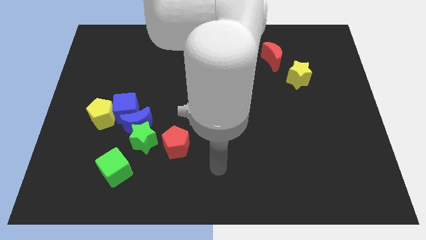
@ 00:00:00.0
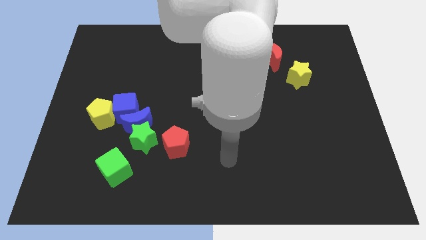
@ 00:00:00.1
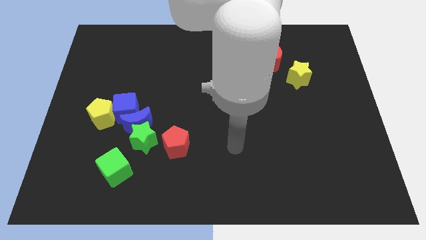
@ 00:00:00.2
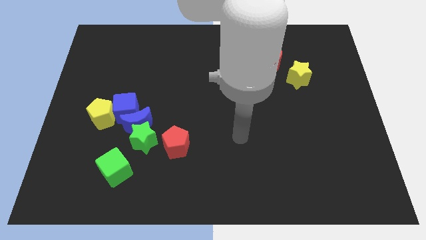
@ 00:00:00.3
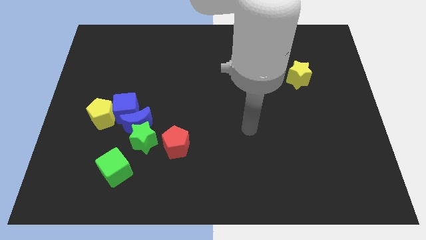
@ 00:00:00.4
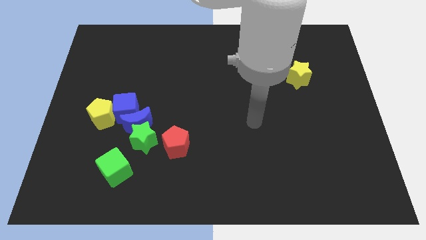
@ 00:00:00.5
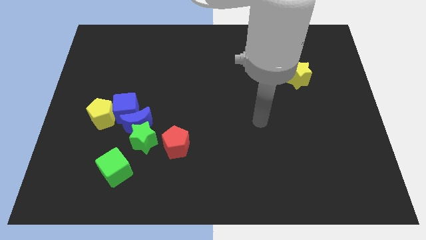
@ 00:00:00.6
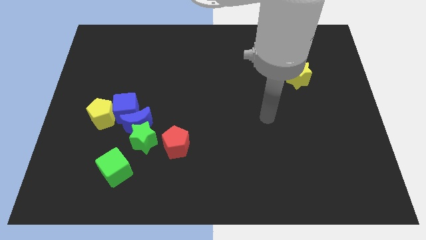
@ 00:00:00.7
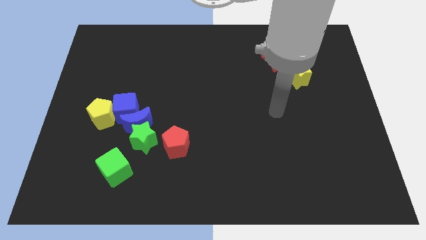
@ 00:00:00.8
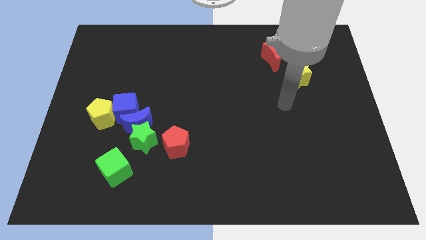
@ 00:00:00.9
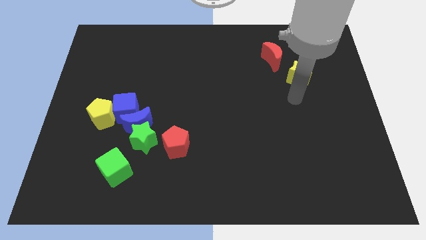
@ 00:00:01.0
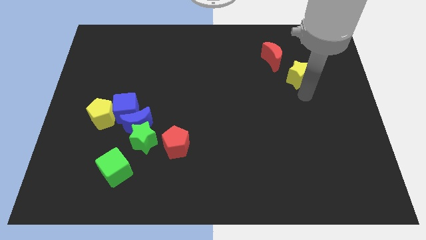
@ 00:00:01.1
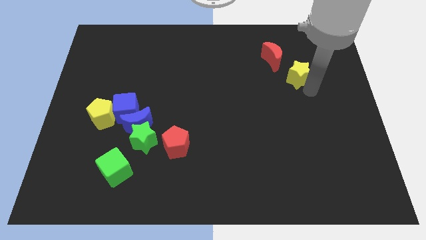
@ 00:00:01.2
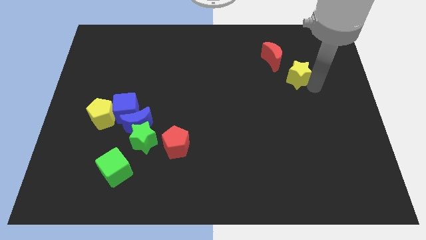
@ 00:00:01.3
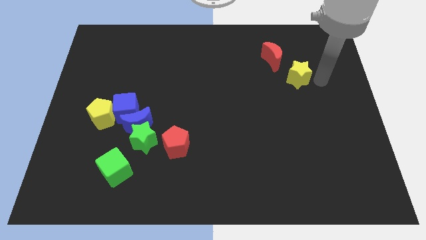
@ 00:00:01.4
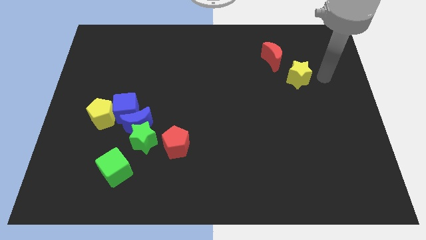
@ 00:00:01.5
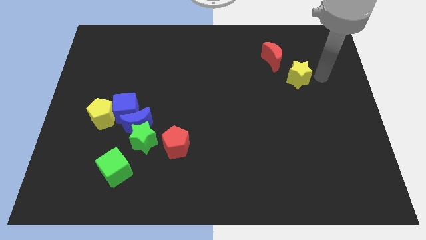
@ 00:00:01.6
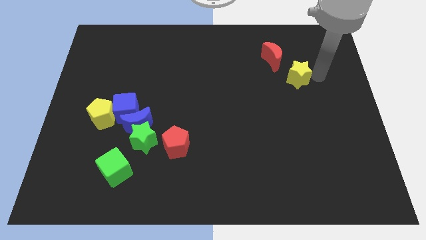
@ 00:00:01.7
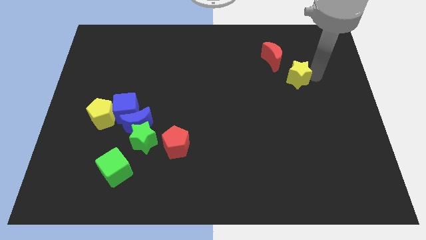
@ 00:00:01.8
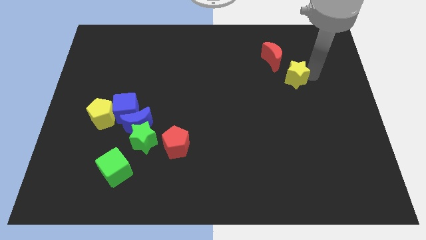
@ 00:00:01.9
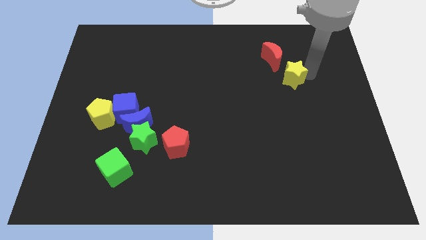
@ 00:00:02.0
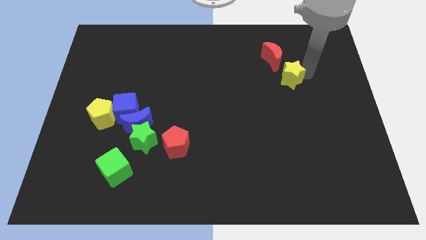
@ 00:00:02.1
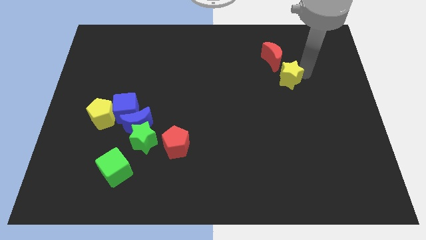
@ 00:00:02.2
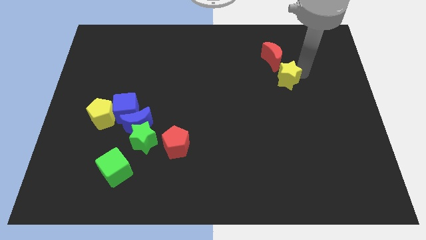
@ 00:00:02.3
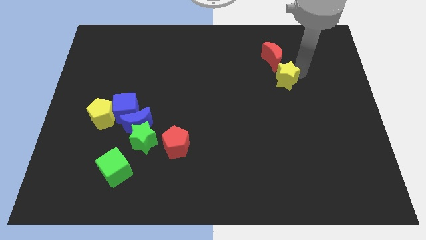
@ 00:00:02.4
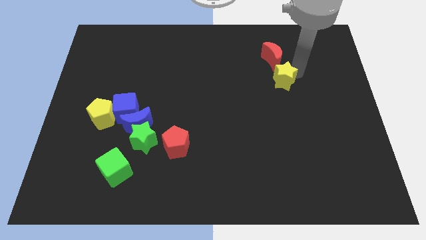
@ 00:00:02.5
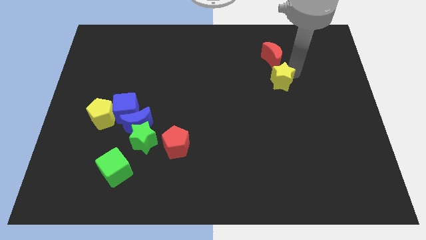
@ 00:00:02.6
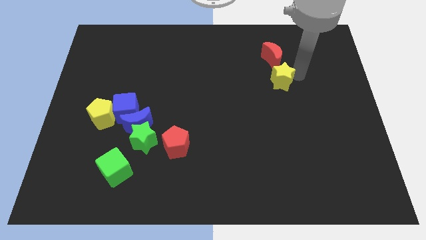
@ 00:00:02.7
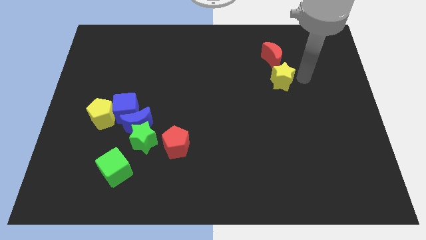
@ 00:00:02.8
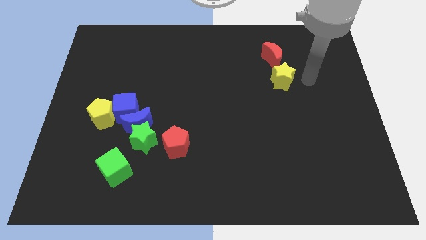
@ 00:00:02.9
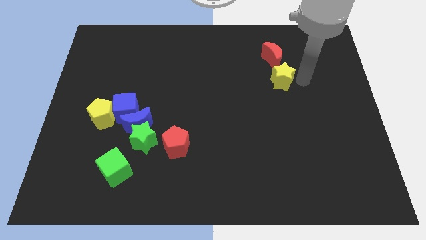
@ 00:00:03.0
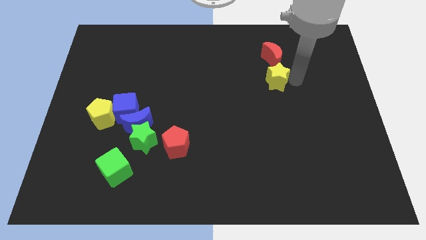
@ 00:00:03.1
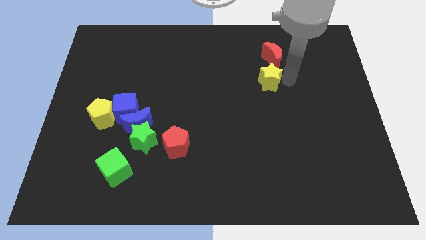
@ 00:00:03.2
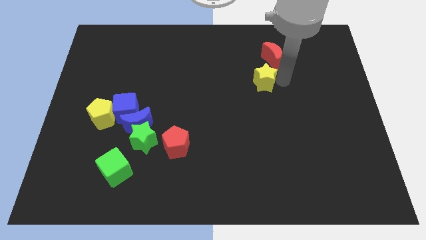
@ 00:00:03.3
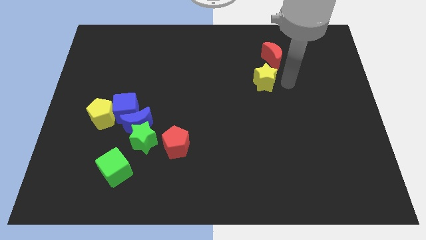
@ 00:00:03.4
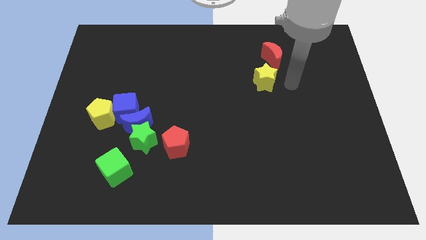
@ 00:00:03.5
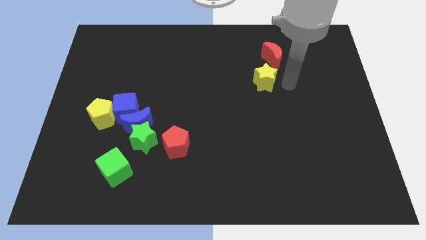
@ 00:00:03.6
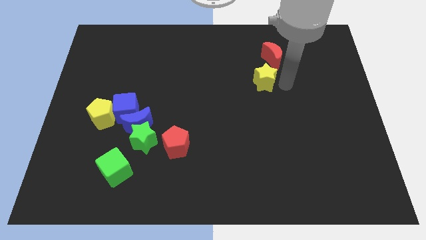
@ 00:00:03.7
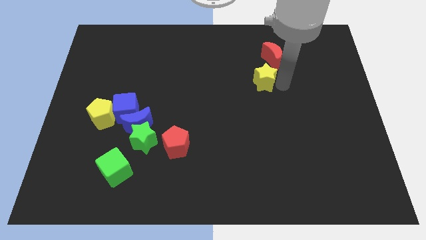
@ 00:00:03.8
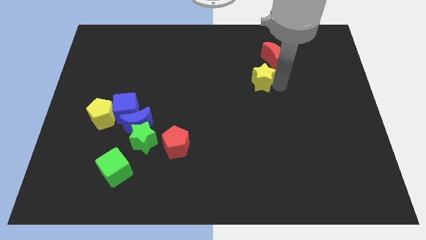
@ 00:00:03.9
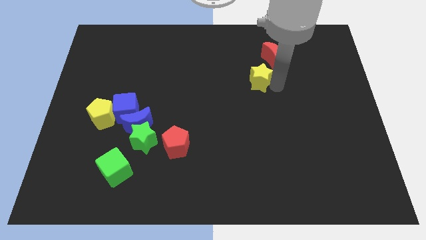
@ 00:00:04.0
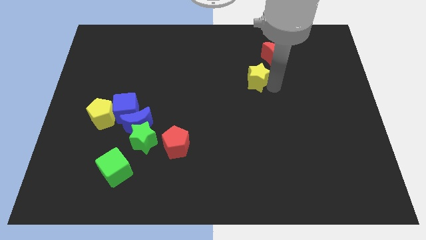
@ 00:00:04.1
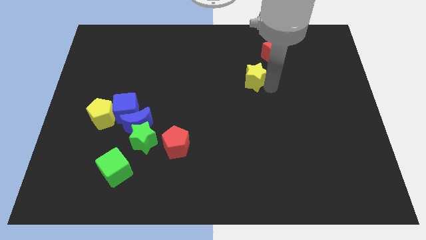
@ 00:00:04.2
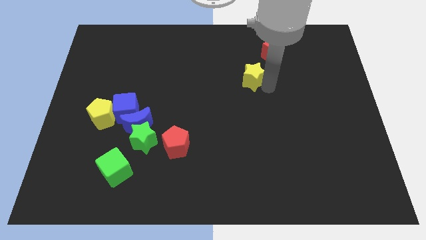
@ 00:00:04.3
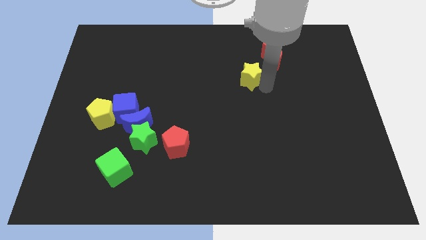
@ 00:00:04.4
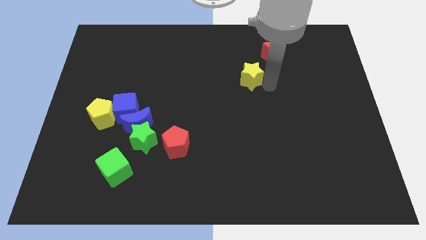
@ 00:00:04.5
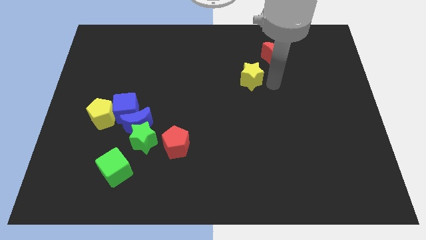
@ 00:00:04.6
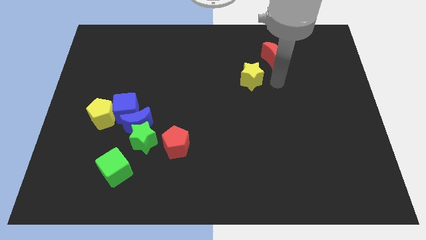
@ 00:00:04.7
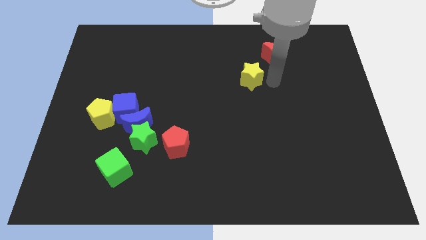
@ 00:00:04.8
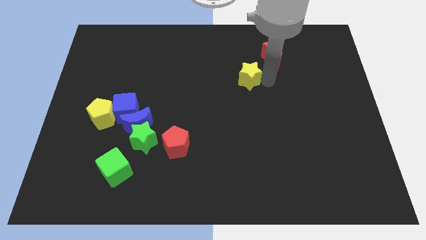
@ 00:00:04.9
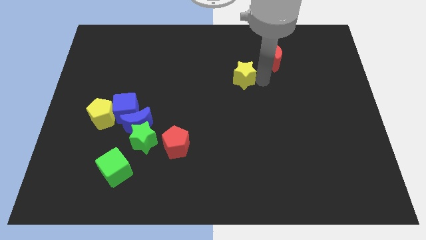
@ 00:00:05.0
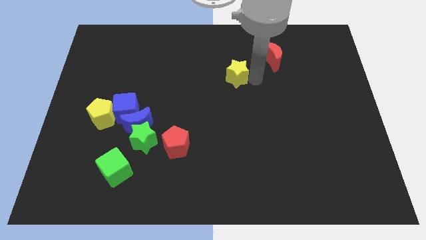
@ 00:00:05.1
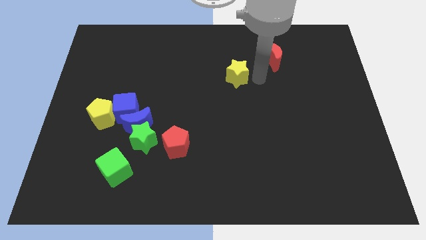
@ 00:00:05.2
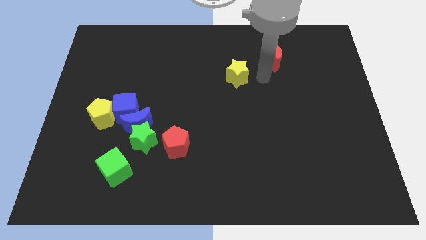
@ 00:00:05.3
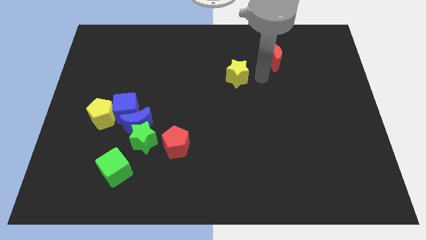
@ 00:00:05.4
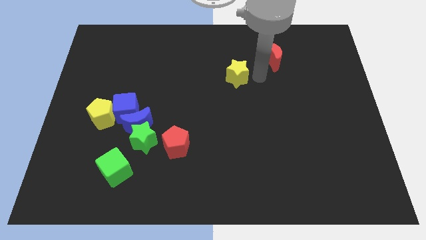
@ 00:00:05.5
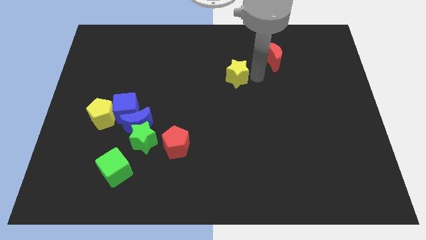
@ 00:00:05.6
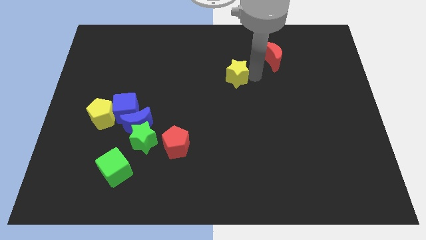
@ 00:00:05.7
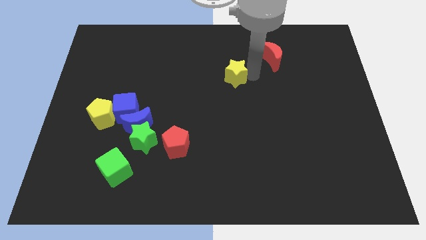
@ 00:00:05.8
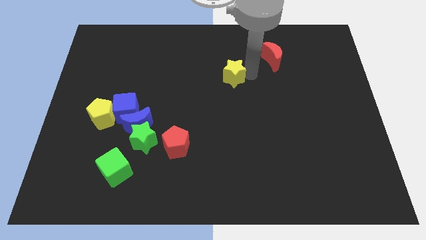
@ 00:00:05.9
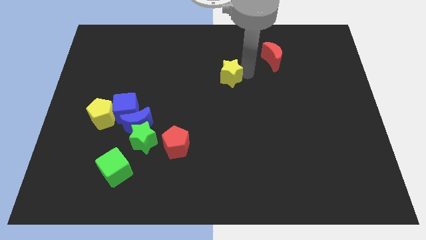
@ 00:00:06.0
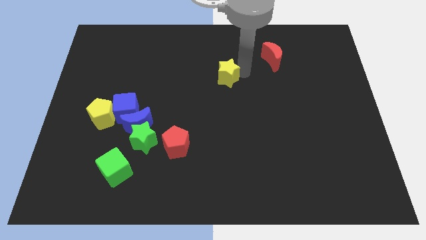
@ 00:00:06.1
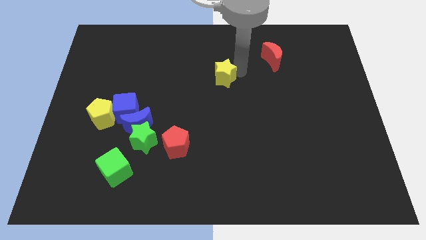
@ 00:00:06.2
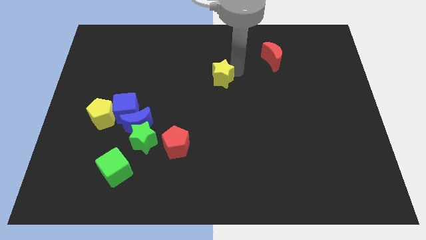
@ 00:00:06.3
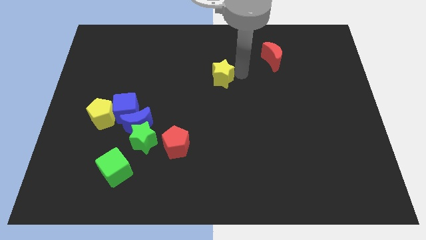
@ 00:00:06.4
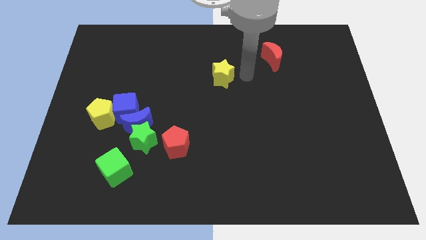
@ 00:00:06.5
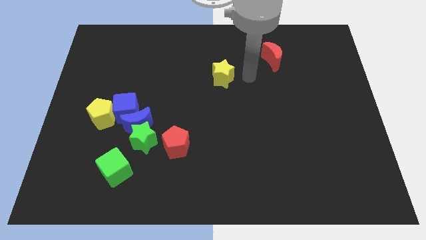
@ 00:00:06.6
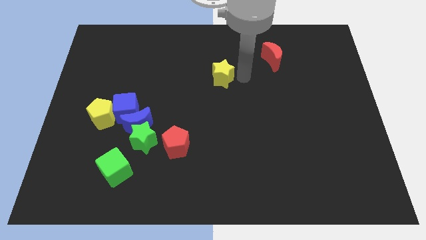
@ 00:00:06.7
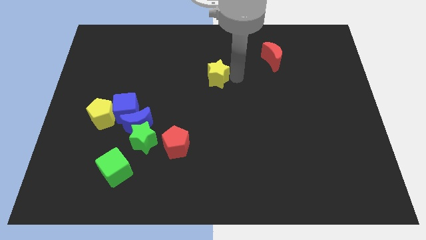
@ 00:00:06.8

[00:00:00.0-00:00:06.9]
push the yellow star to the left

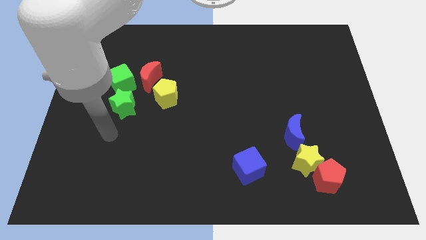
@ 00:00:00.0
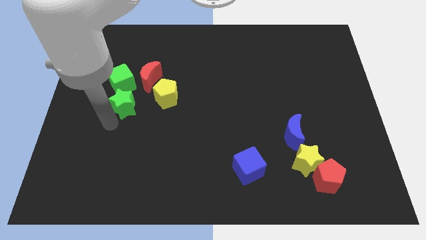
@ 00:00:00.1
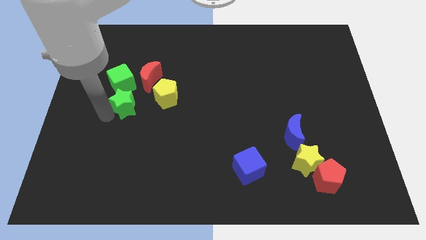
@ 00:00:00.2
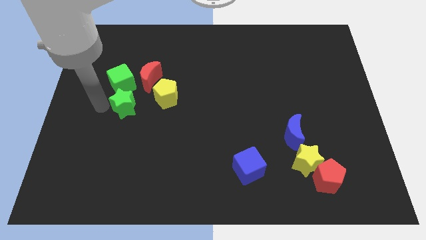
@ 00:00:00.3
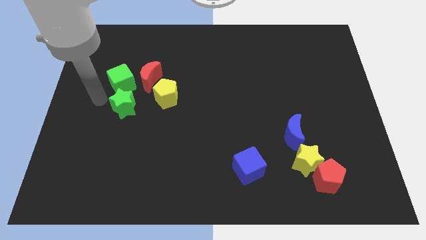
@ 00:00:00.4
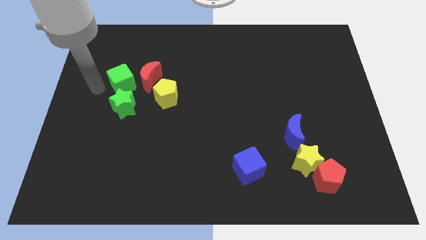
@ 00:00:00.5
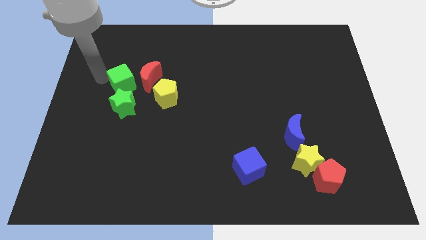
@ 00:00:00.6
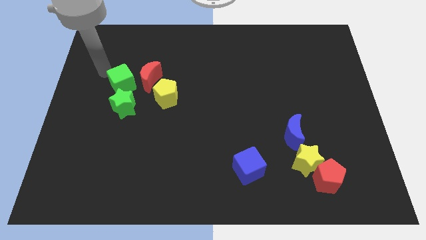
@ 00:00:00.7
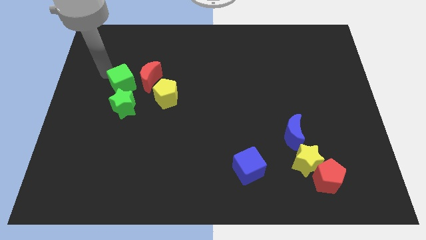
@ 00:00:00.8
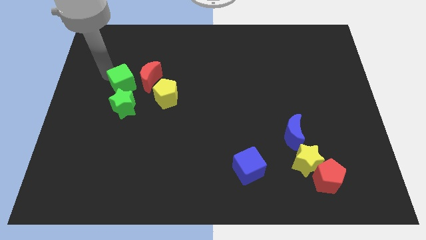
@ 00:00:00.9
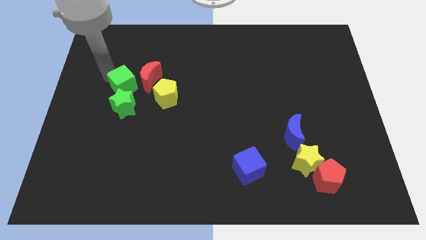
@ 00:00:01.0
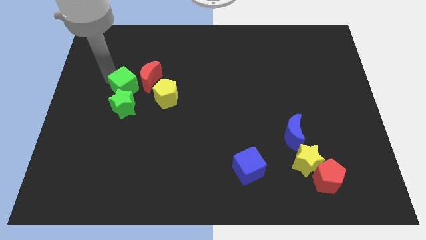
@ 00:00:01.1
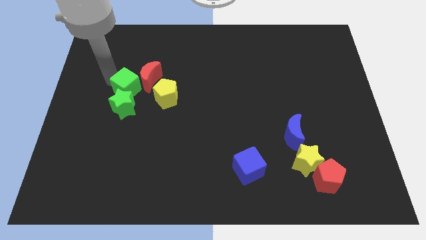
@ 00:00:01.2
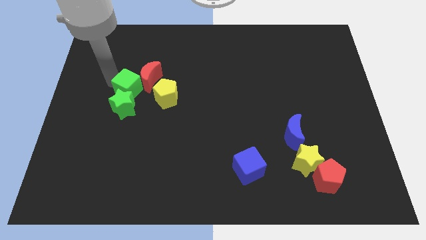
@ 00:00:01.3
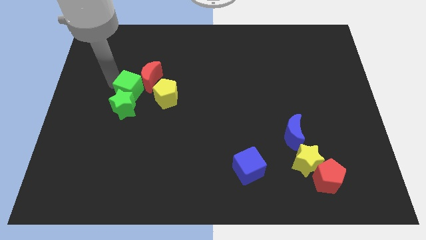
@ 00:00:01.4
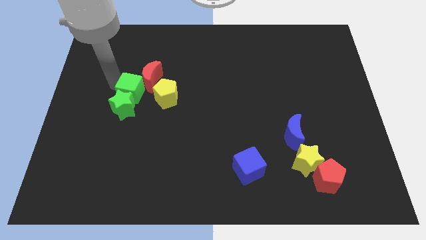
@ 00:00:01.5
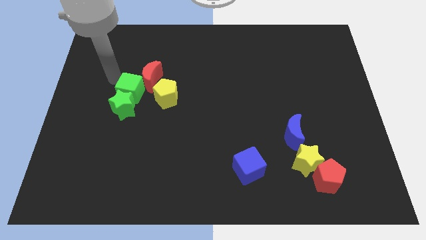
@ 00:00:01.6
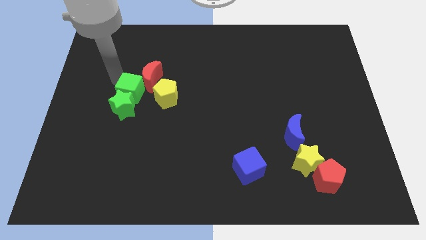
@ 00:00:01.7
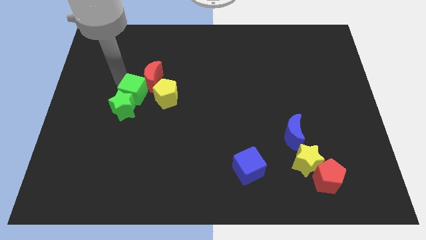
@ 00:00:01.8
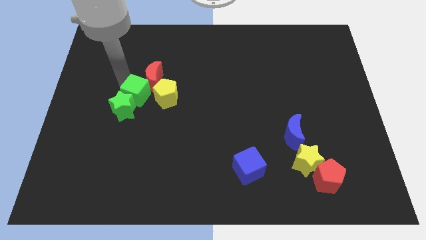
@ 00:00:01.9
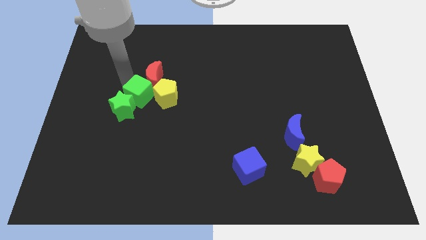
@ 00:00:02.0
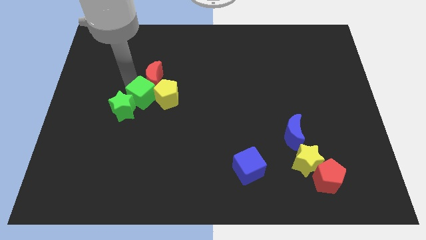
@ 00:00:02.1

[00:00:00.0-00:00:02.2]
slightly slide the green cube diagonally down and to the right
